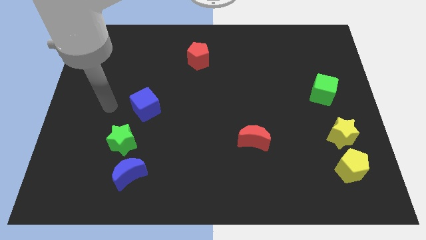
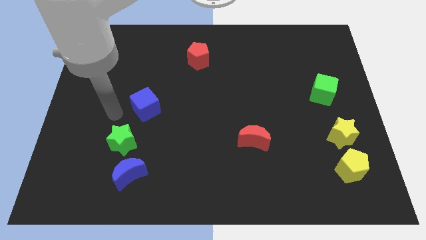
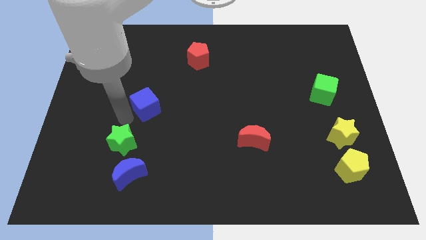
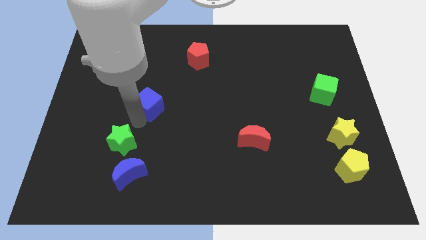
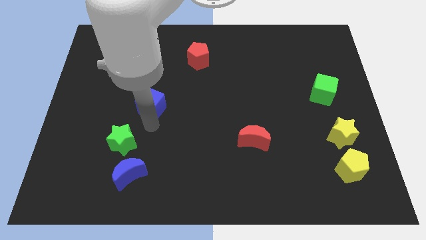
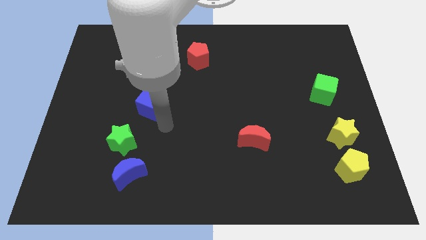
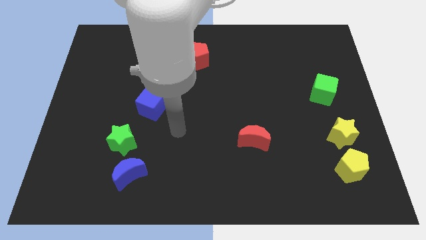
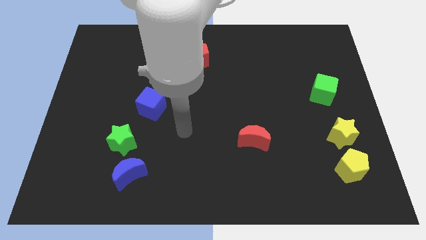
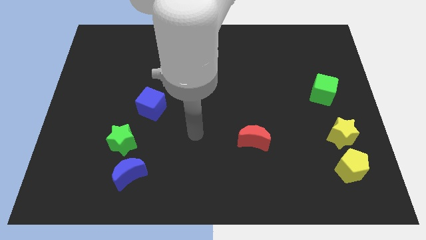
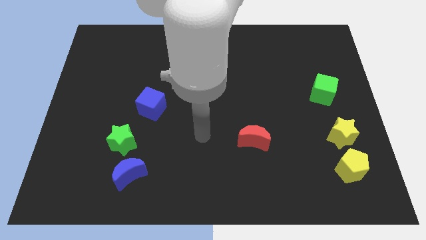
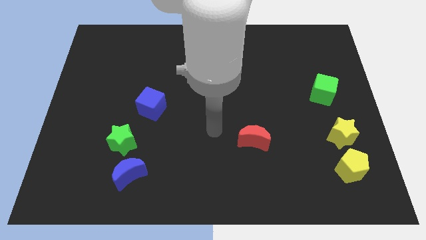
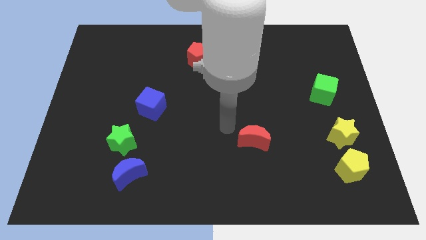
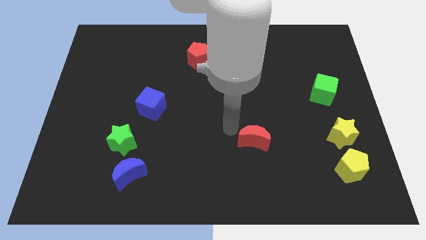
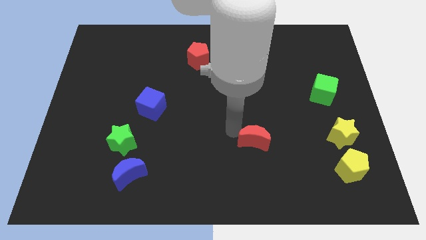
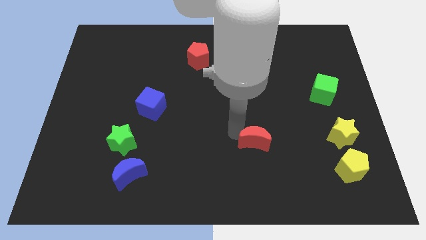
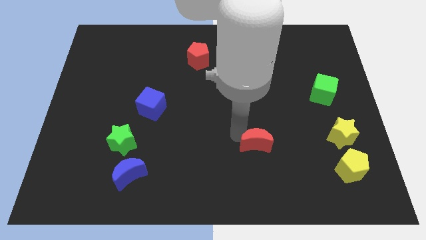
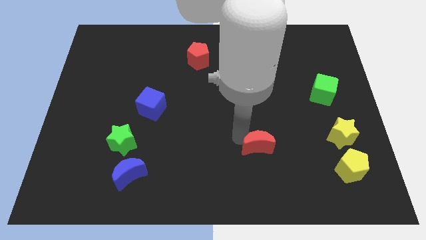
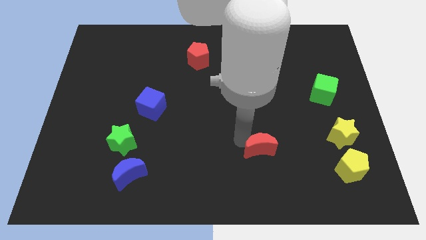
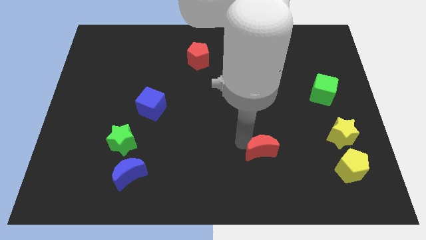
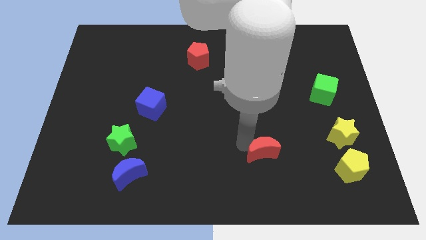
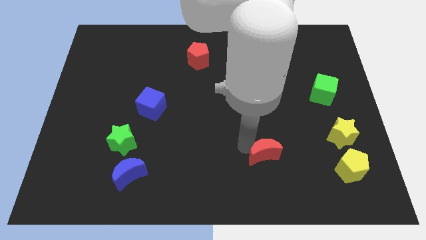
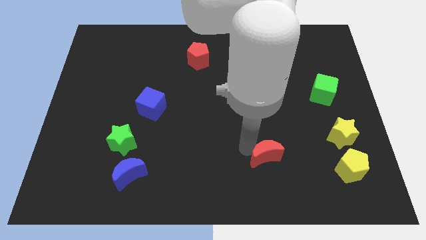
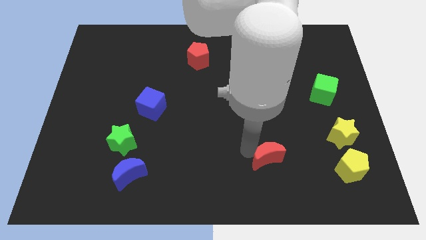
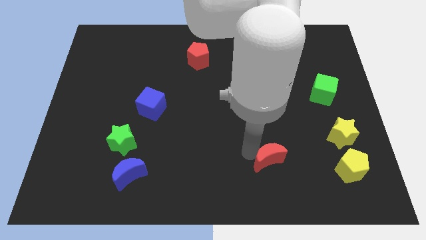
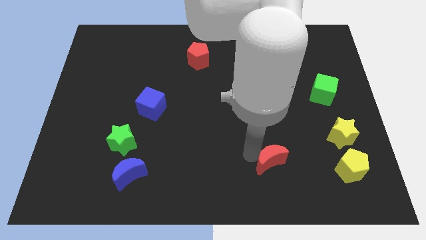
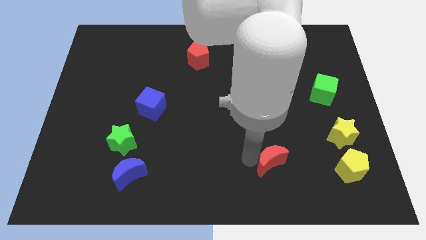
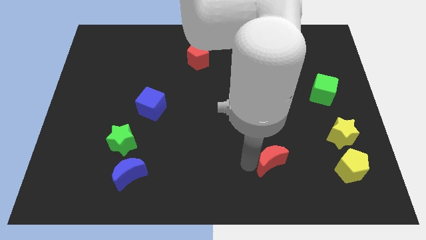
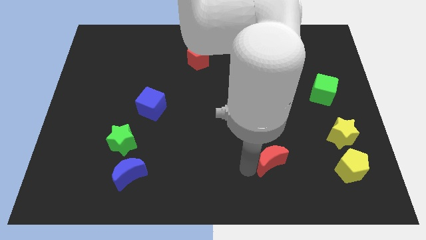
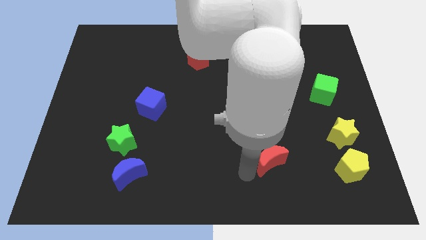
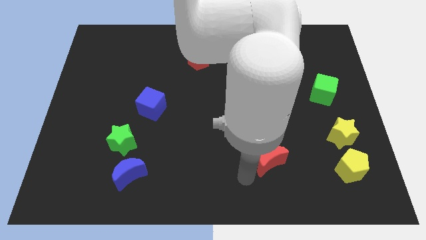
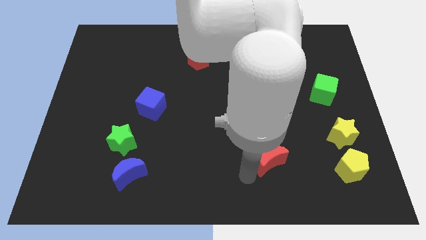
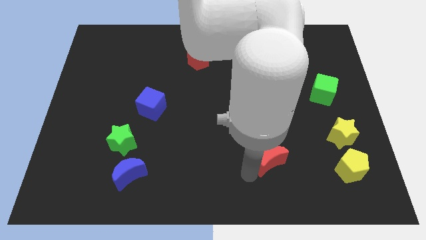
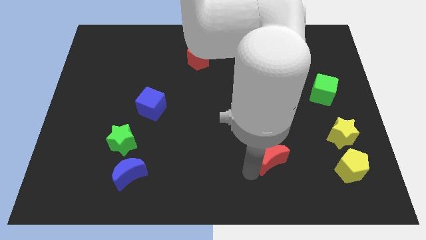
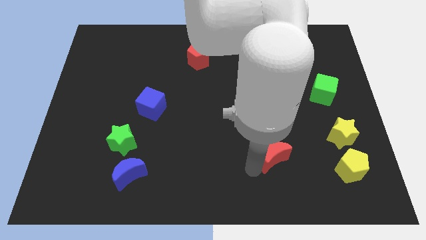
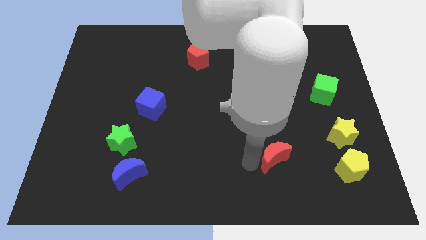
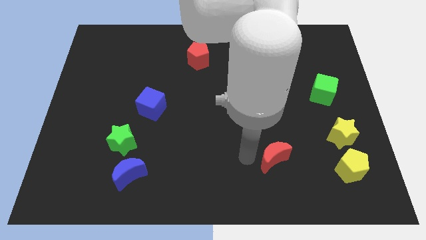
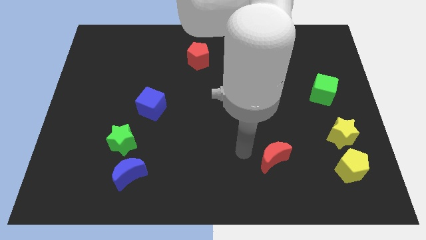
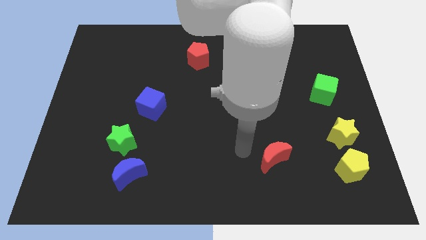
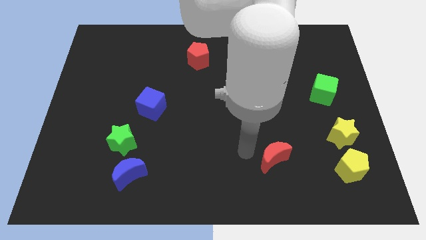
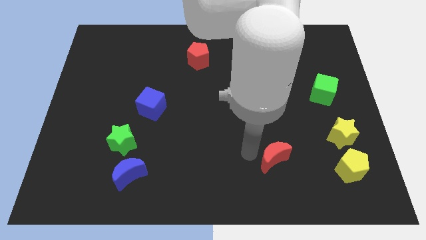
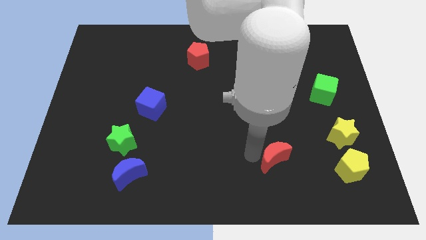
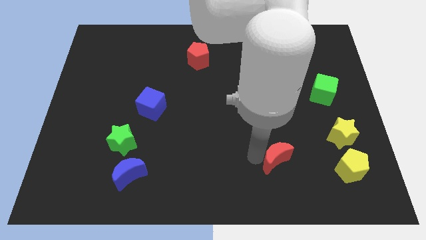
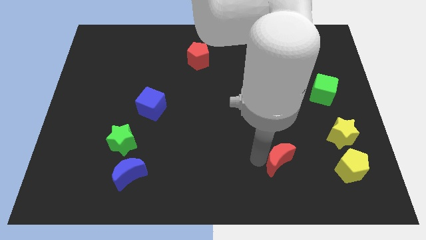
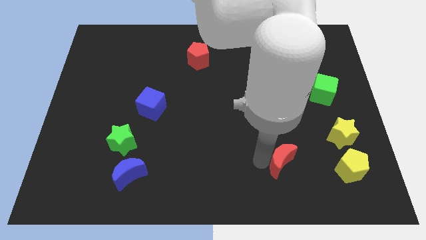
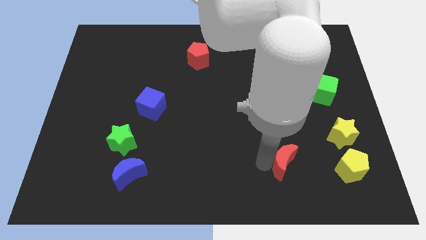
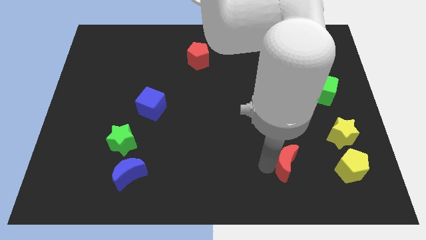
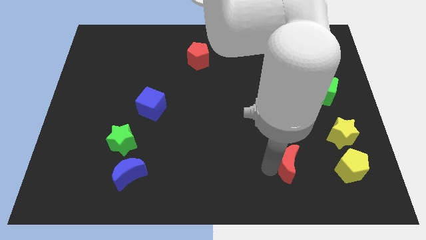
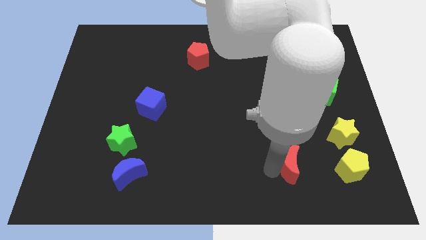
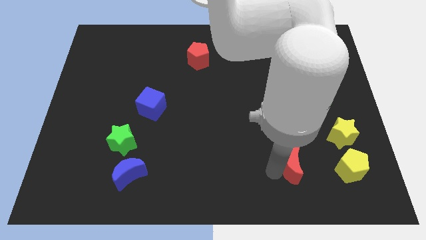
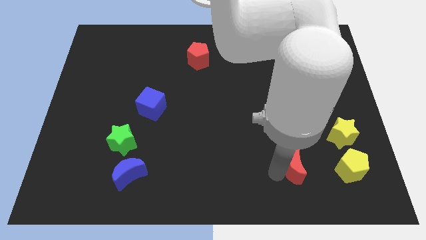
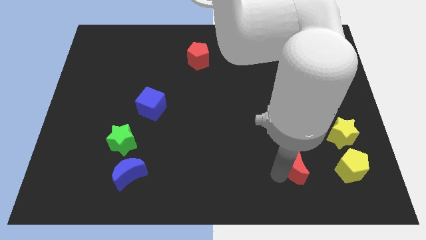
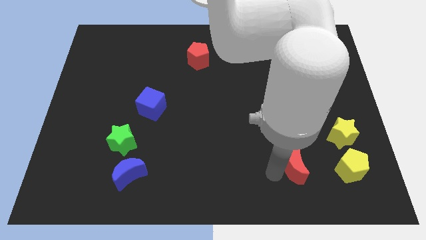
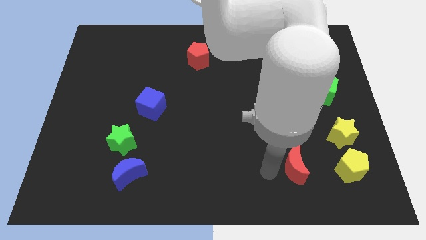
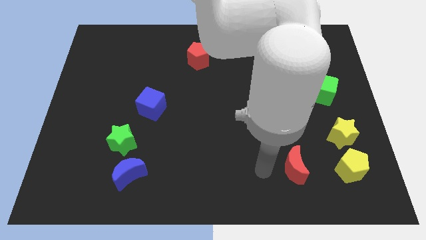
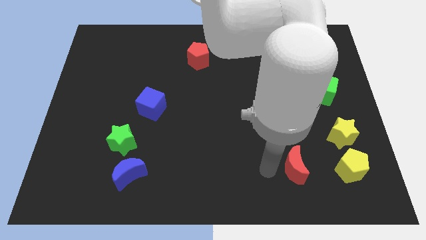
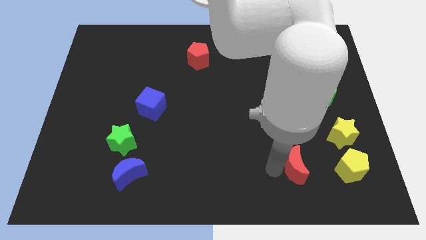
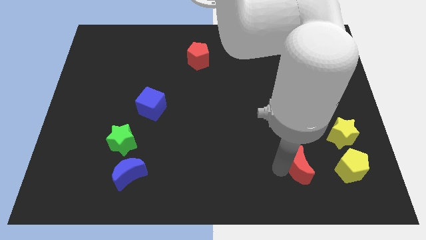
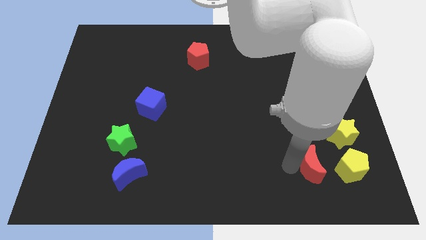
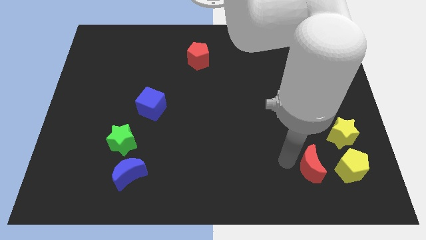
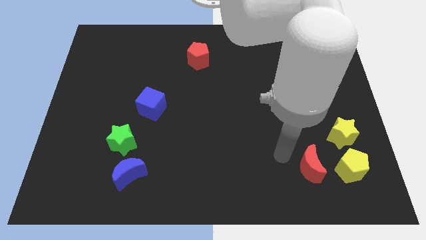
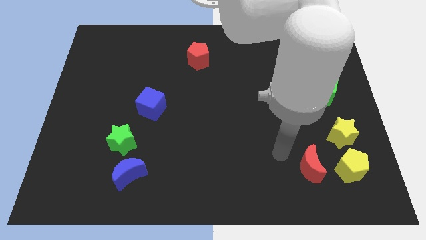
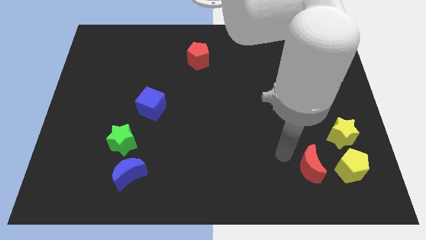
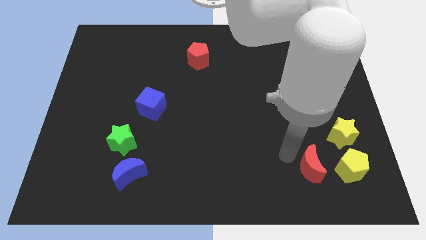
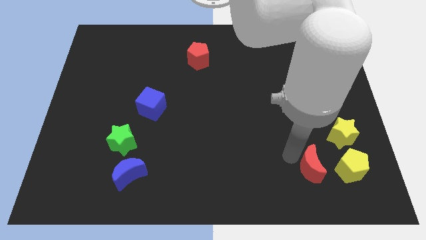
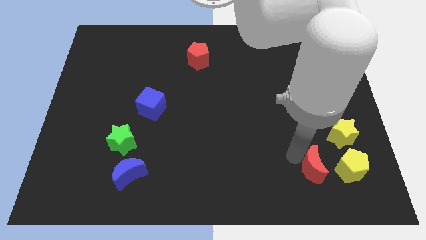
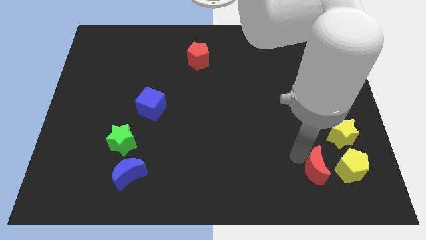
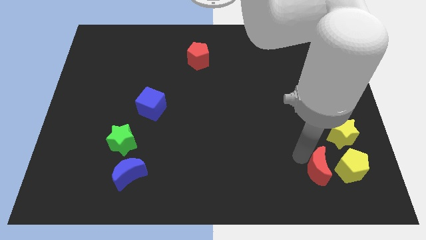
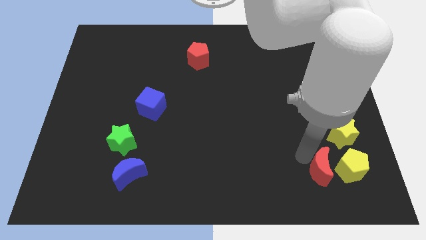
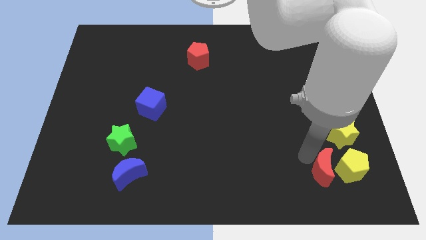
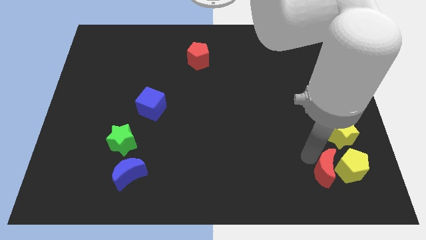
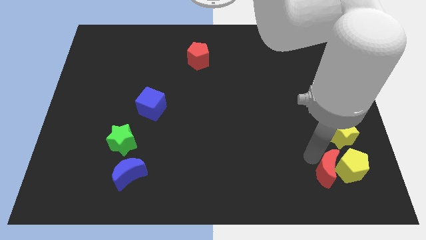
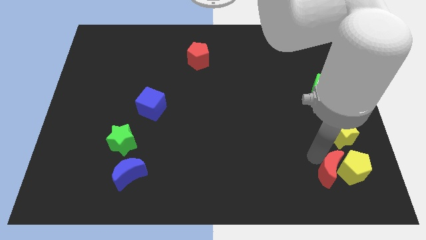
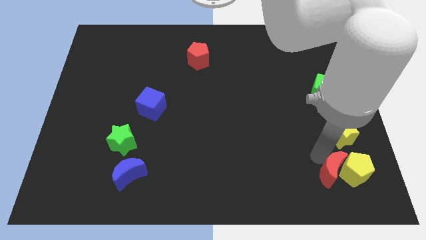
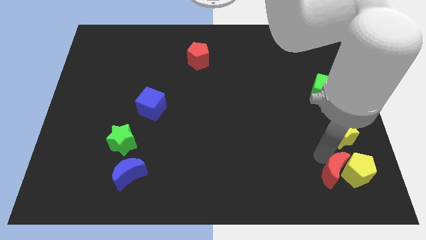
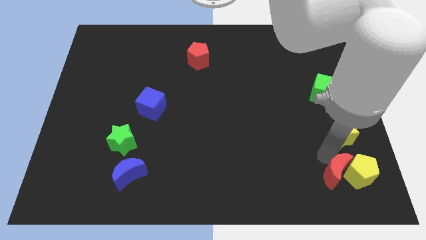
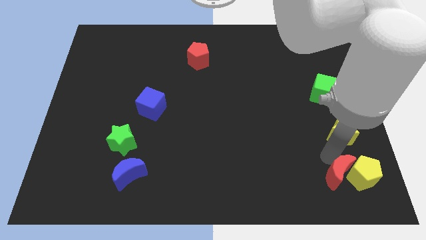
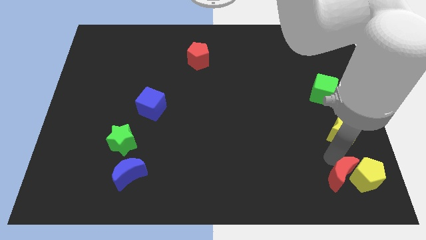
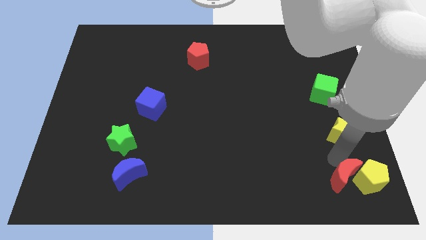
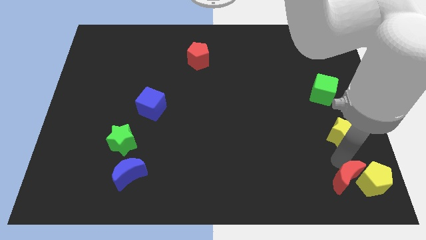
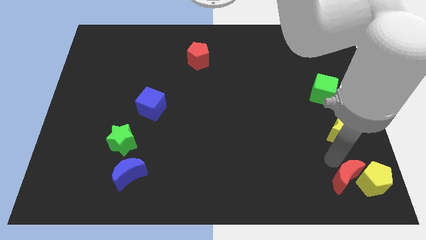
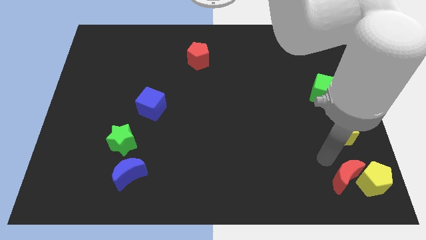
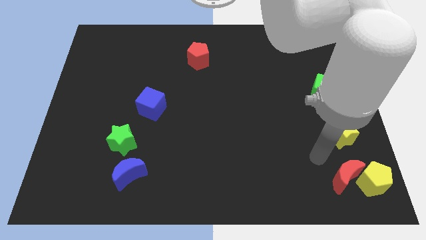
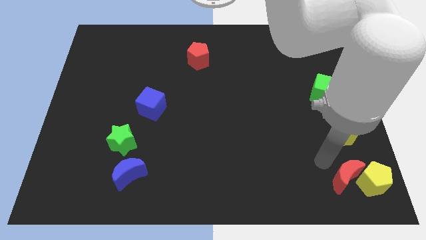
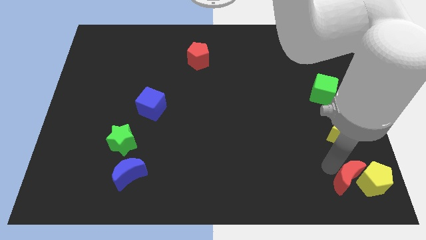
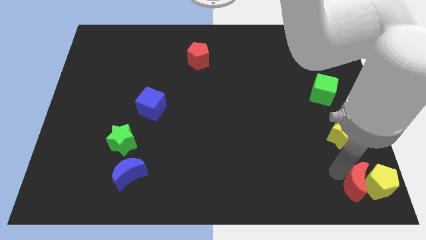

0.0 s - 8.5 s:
push the red moon to the bottom right corner
